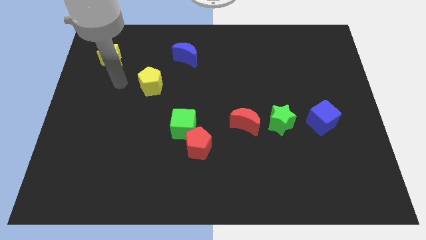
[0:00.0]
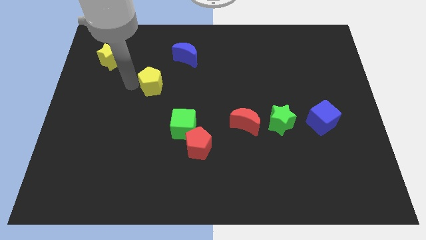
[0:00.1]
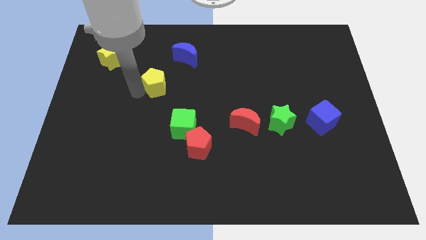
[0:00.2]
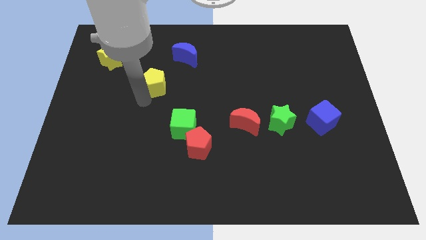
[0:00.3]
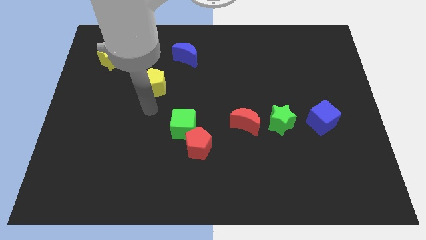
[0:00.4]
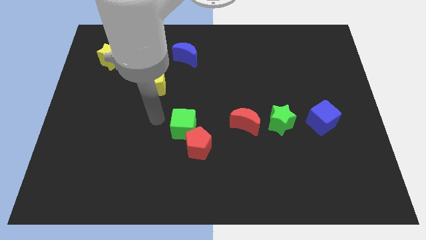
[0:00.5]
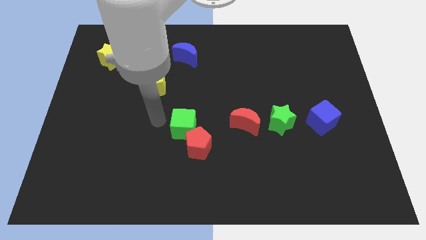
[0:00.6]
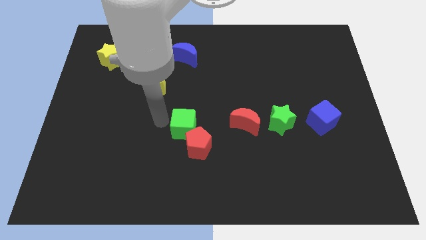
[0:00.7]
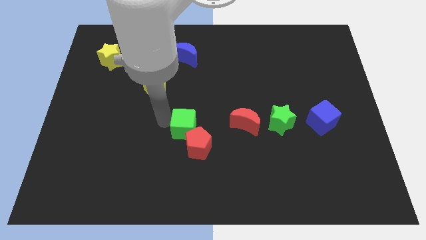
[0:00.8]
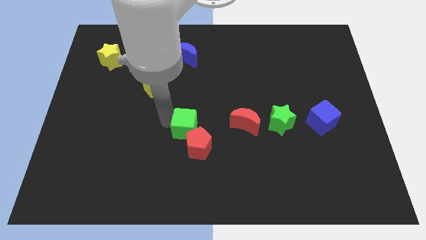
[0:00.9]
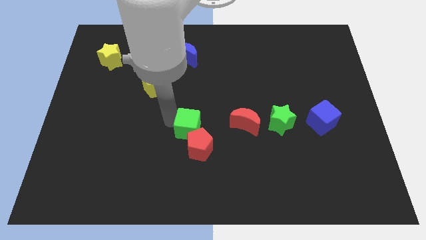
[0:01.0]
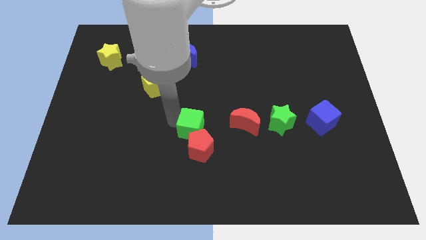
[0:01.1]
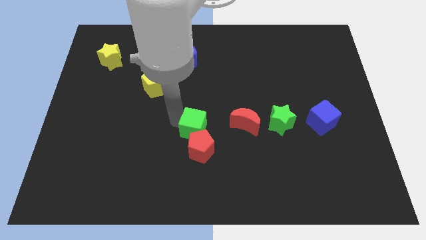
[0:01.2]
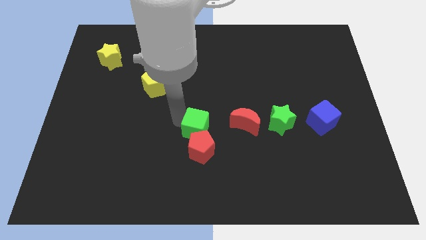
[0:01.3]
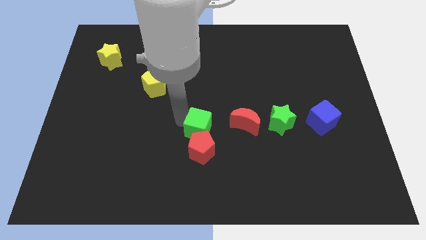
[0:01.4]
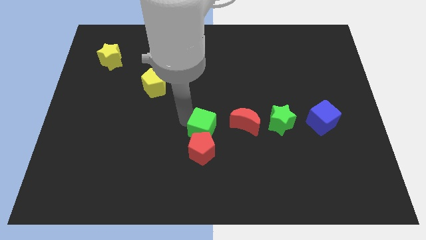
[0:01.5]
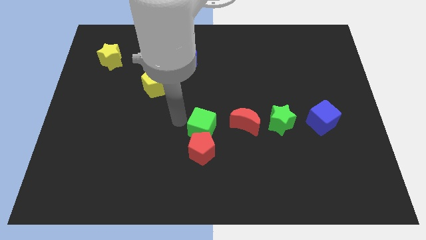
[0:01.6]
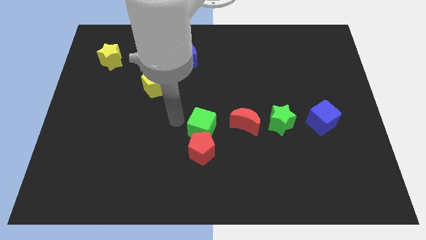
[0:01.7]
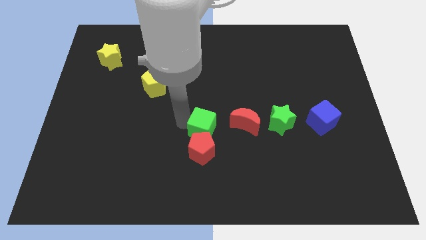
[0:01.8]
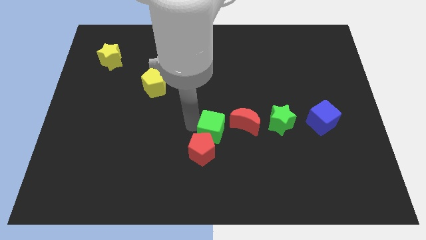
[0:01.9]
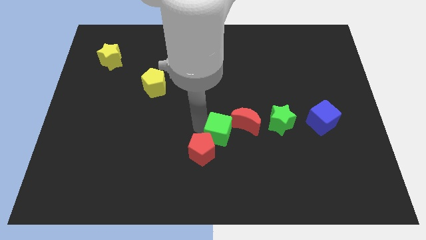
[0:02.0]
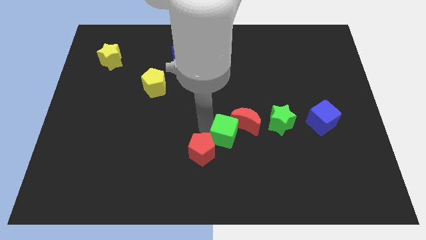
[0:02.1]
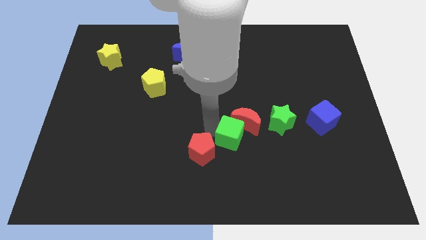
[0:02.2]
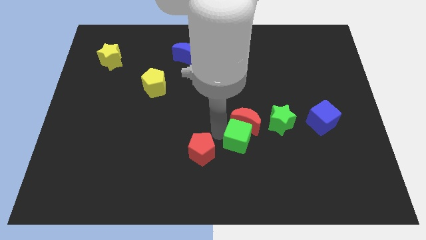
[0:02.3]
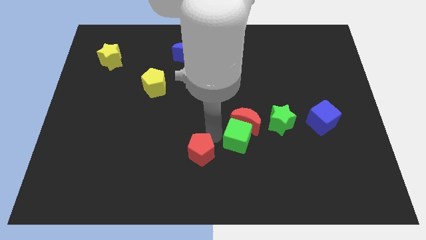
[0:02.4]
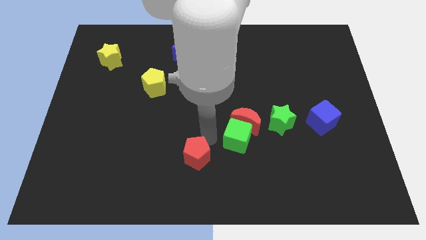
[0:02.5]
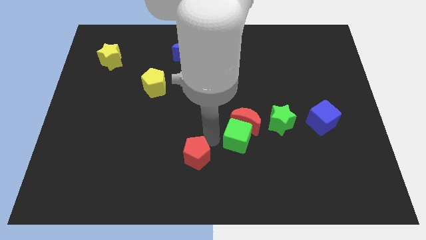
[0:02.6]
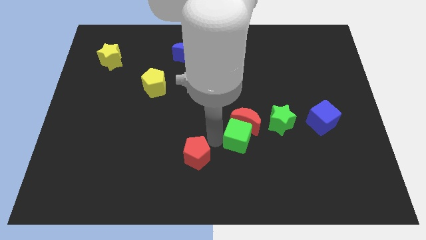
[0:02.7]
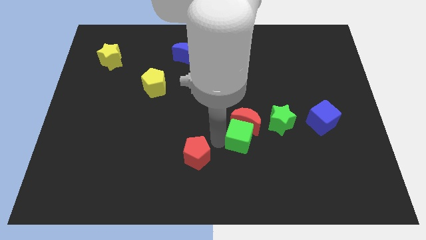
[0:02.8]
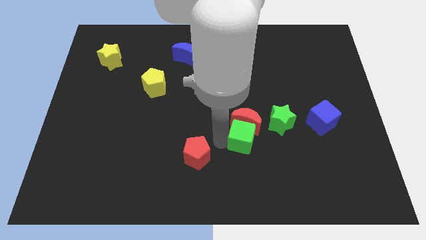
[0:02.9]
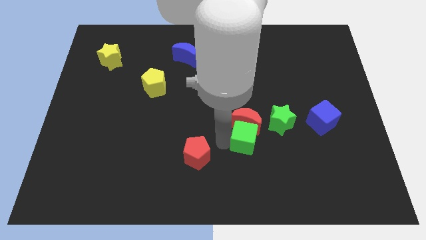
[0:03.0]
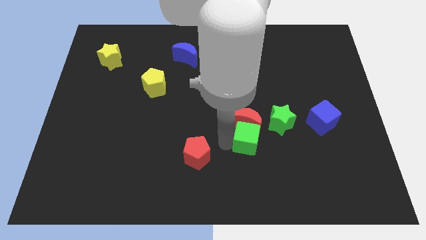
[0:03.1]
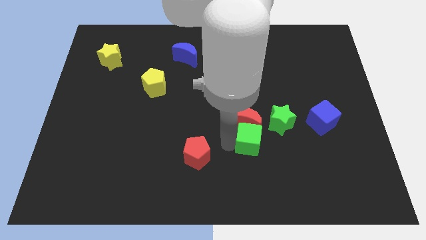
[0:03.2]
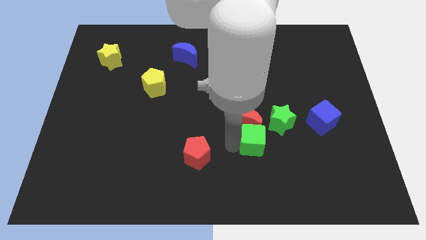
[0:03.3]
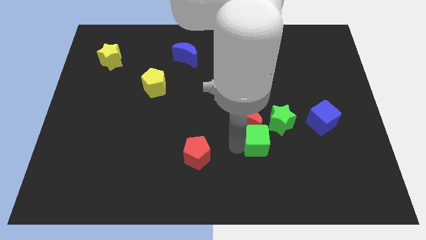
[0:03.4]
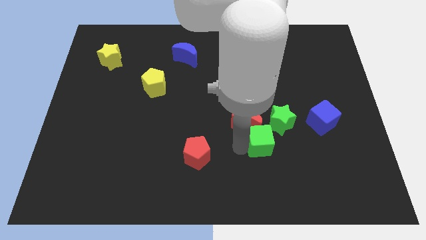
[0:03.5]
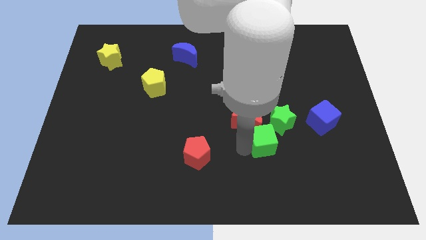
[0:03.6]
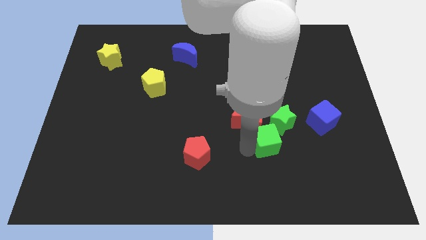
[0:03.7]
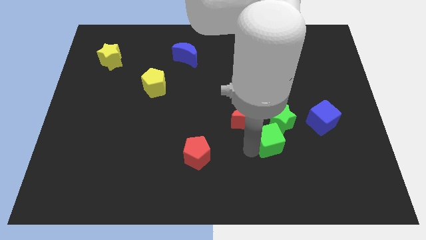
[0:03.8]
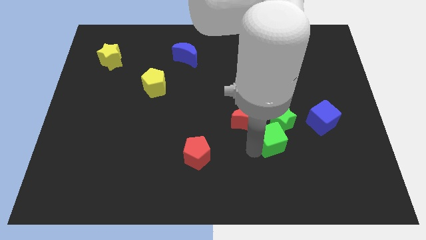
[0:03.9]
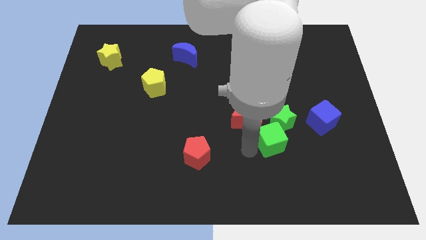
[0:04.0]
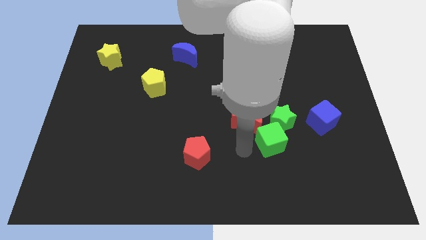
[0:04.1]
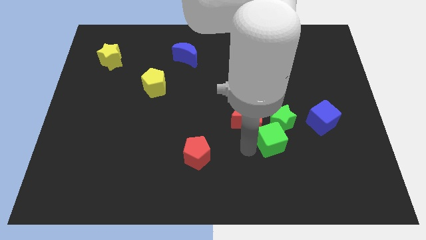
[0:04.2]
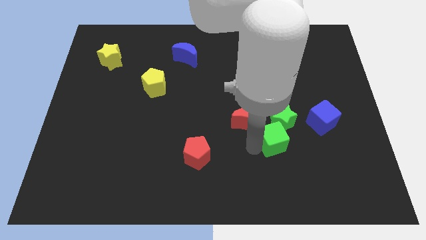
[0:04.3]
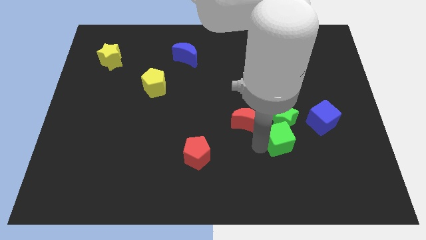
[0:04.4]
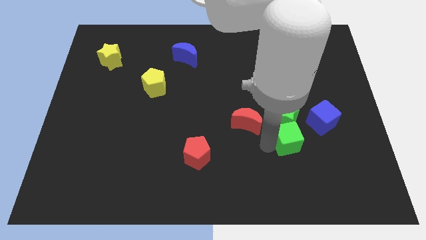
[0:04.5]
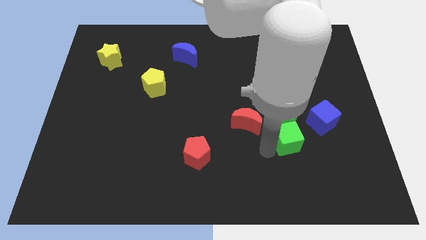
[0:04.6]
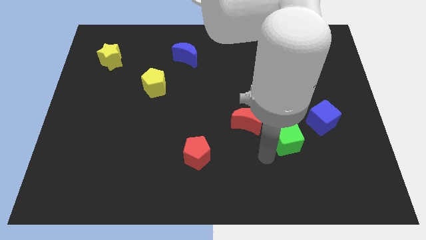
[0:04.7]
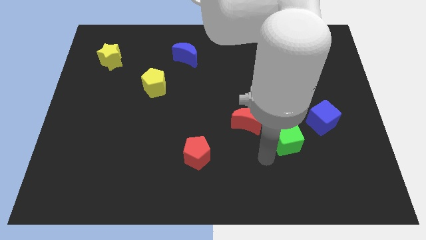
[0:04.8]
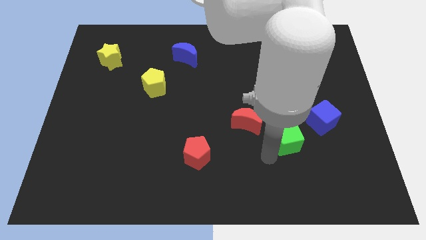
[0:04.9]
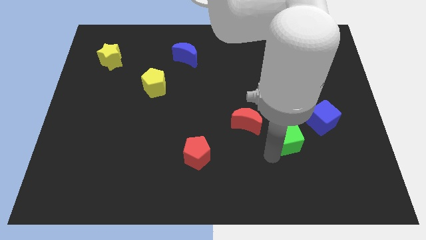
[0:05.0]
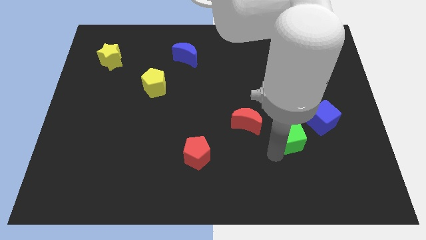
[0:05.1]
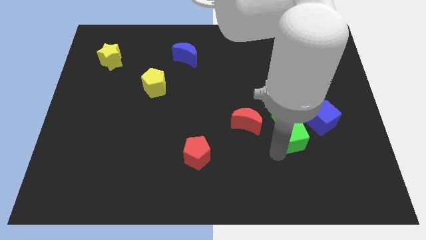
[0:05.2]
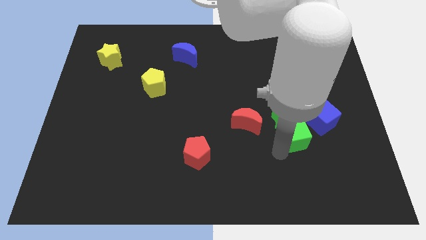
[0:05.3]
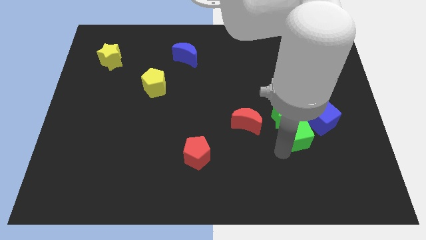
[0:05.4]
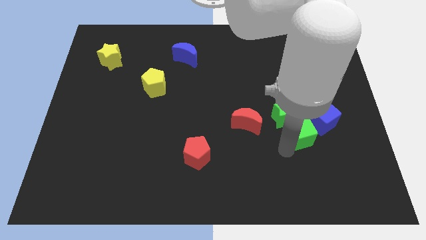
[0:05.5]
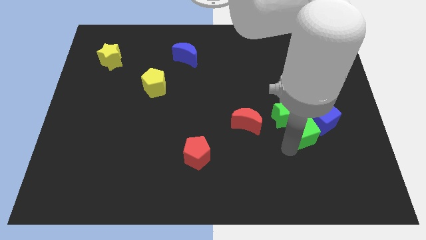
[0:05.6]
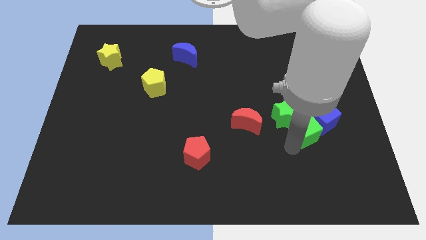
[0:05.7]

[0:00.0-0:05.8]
push the green cube close to the blue cube
